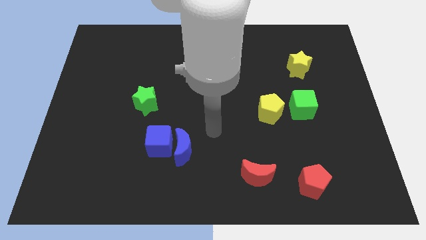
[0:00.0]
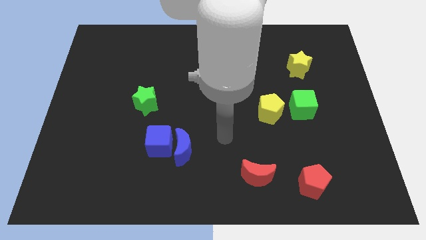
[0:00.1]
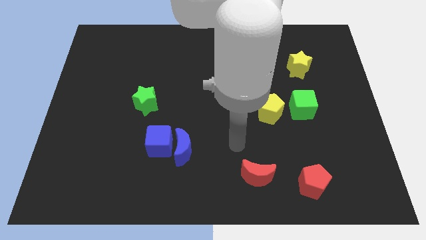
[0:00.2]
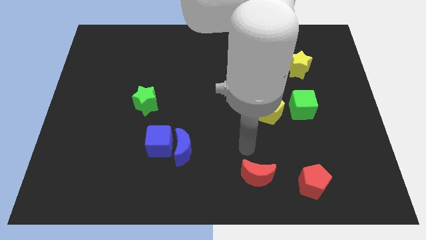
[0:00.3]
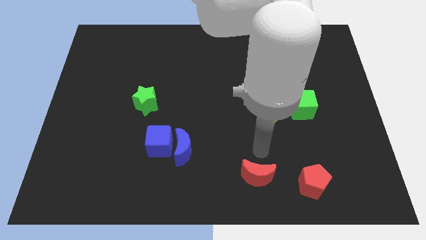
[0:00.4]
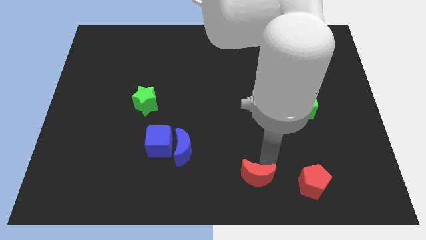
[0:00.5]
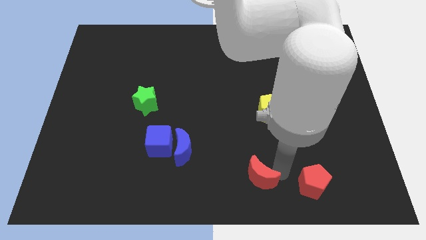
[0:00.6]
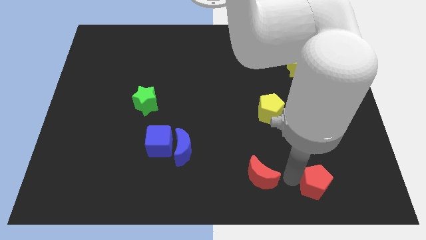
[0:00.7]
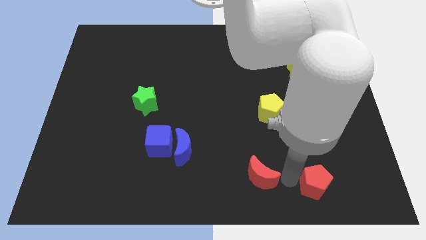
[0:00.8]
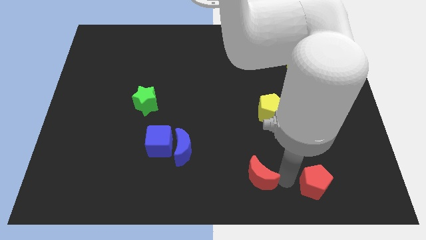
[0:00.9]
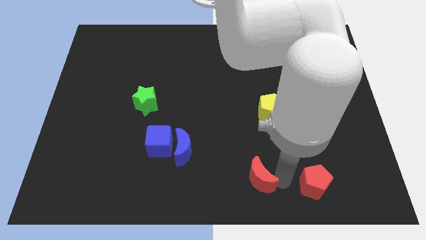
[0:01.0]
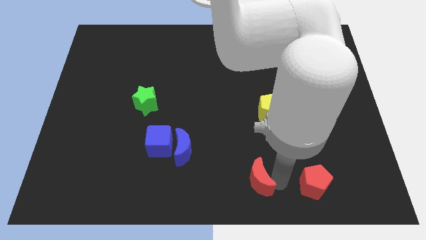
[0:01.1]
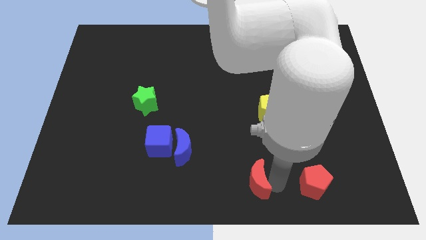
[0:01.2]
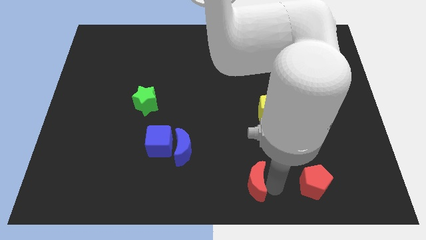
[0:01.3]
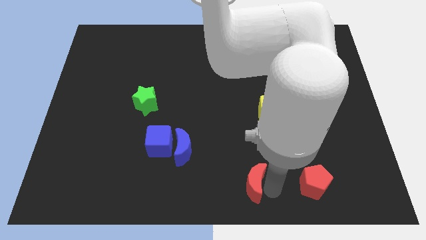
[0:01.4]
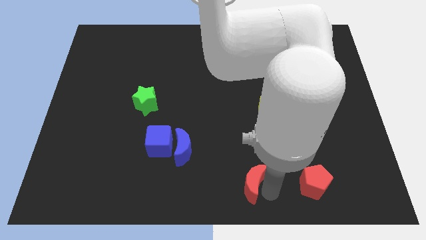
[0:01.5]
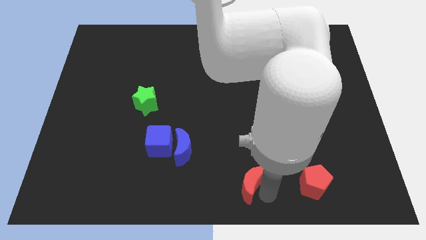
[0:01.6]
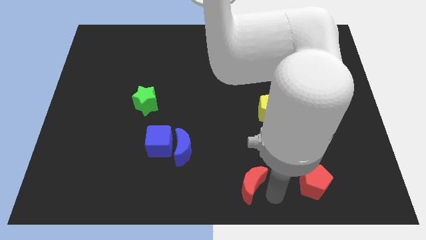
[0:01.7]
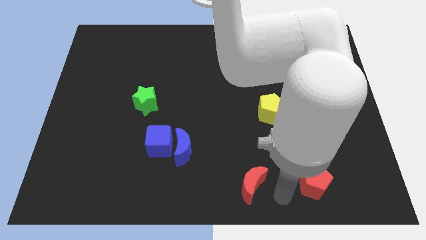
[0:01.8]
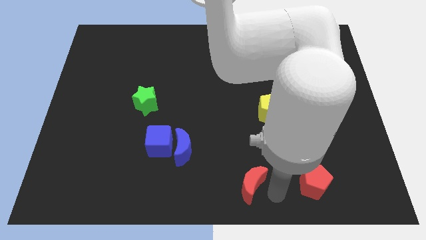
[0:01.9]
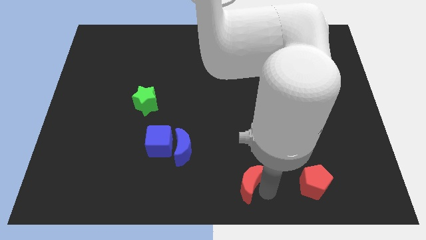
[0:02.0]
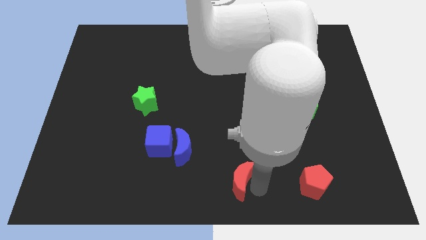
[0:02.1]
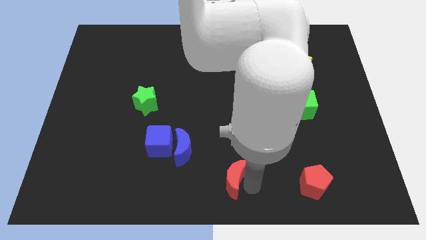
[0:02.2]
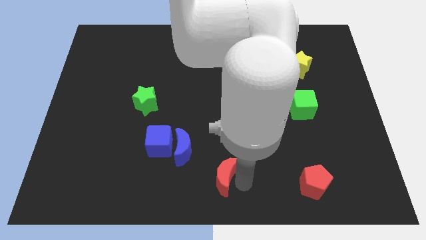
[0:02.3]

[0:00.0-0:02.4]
push the red moon left a little

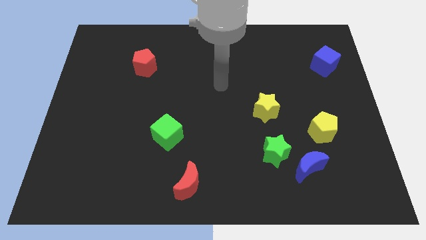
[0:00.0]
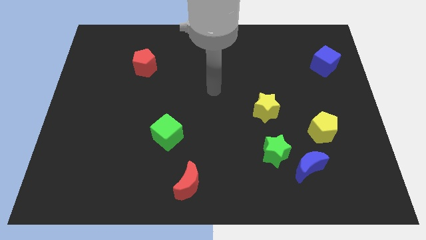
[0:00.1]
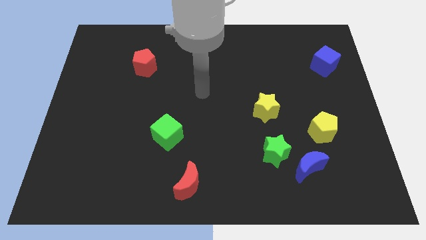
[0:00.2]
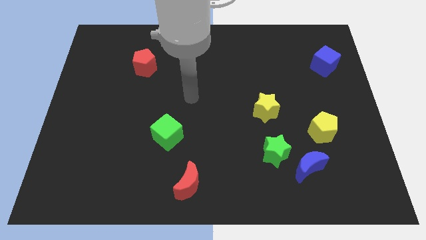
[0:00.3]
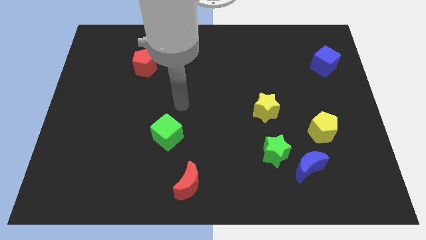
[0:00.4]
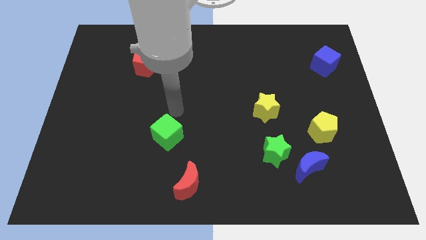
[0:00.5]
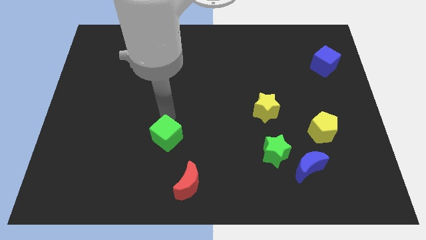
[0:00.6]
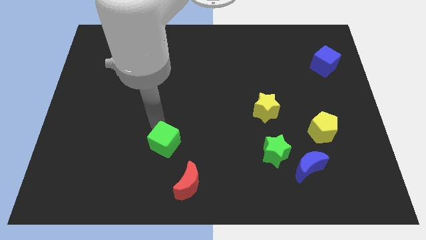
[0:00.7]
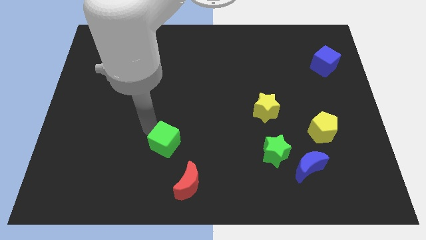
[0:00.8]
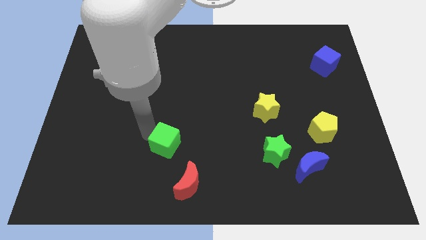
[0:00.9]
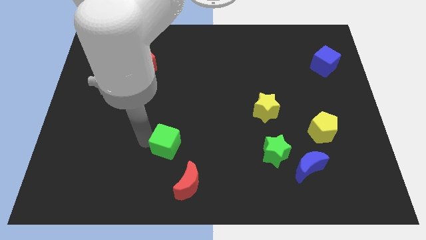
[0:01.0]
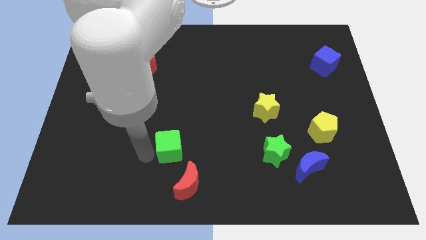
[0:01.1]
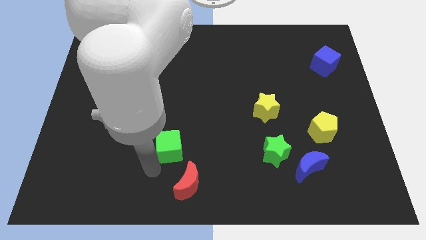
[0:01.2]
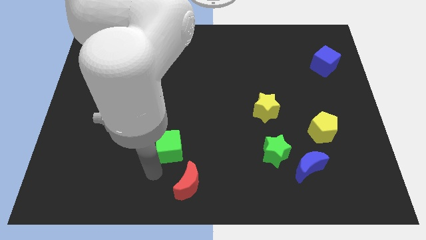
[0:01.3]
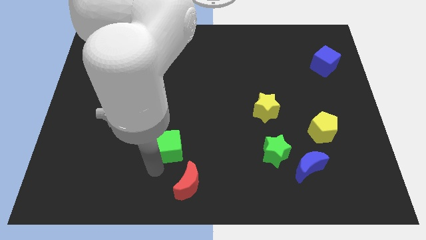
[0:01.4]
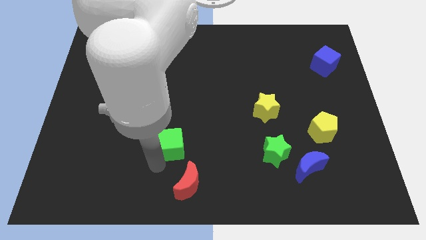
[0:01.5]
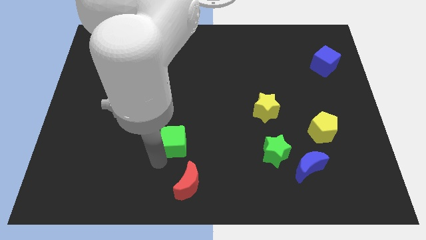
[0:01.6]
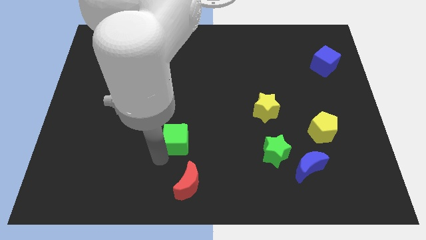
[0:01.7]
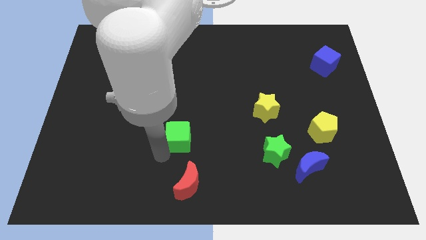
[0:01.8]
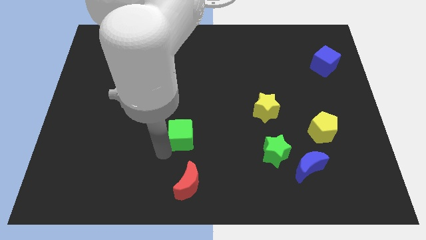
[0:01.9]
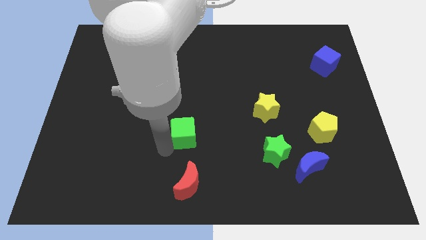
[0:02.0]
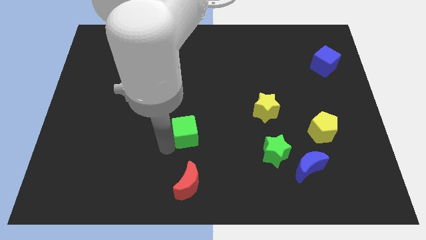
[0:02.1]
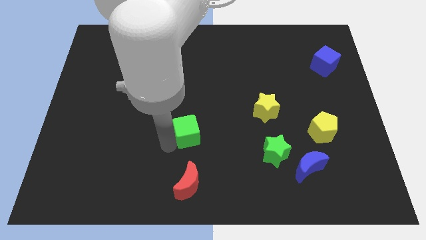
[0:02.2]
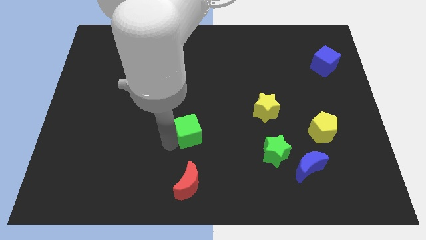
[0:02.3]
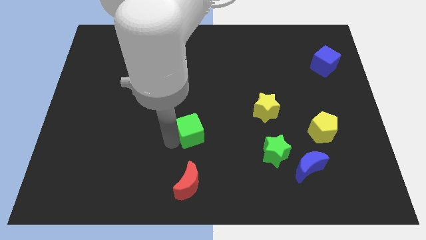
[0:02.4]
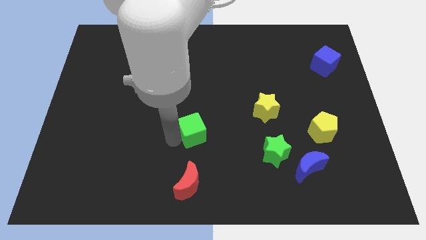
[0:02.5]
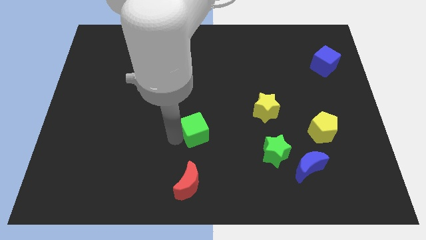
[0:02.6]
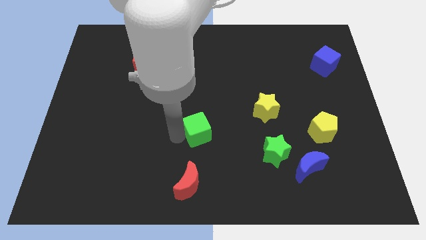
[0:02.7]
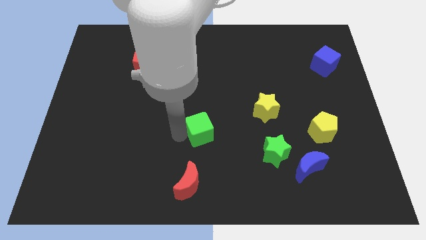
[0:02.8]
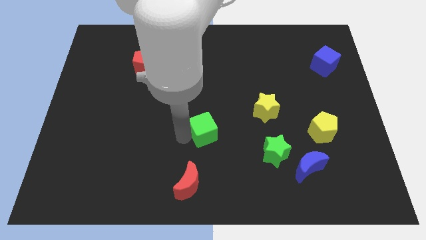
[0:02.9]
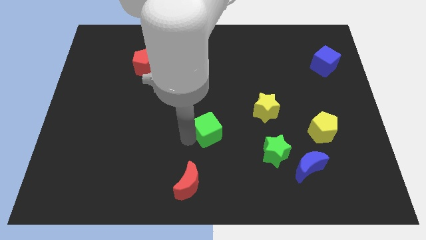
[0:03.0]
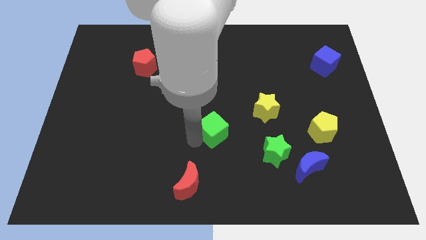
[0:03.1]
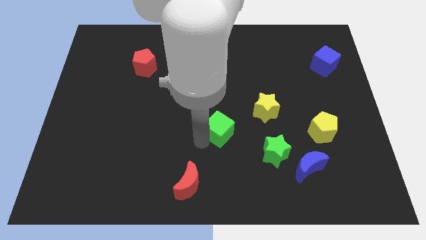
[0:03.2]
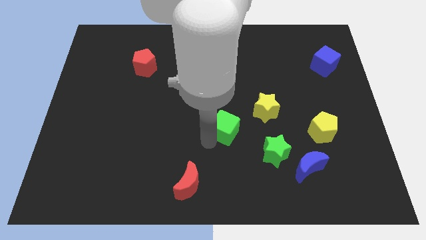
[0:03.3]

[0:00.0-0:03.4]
move the green cube a bit upwards and then to the right

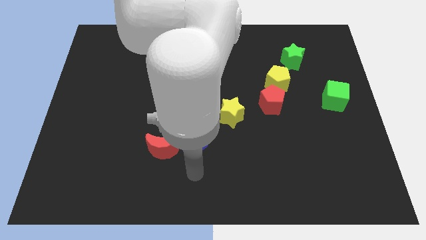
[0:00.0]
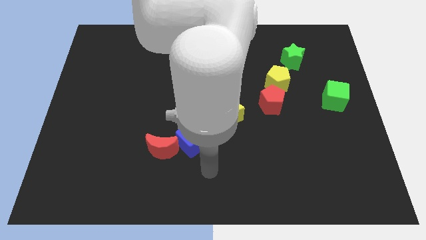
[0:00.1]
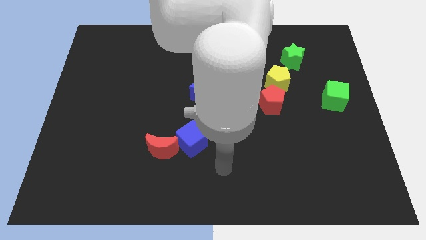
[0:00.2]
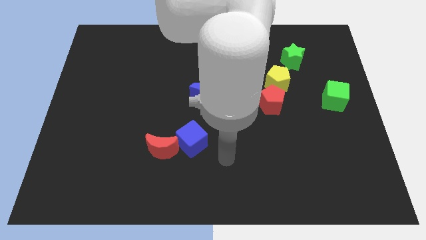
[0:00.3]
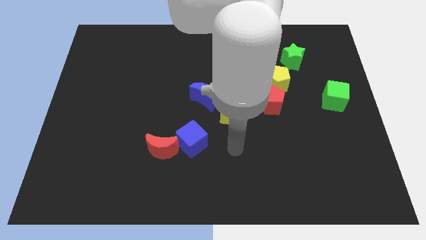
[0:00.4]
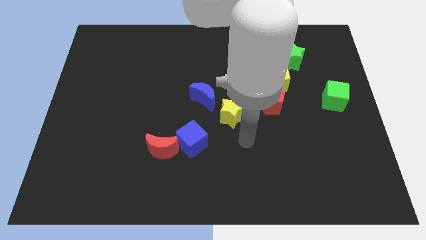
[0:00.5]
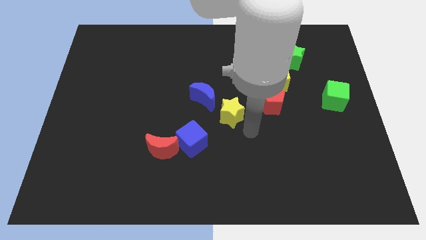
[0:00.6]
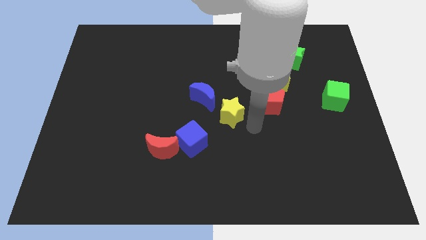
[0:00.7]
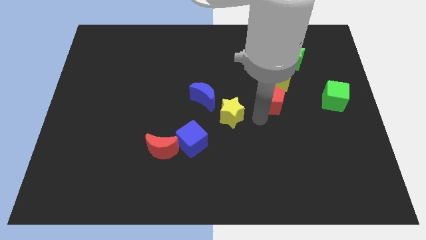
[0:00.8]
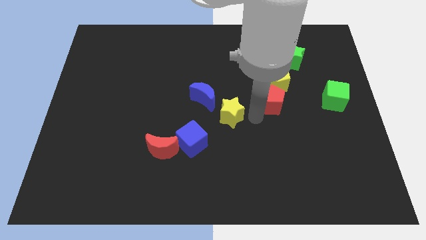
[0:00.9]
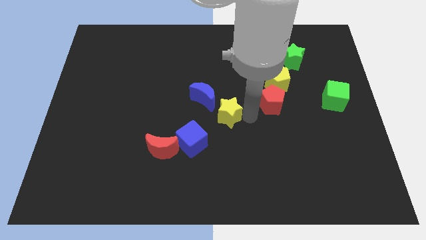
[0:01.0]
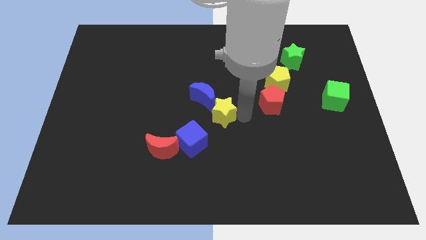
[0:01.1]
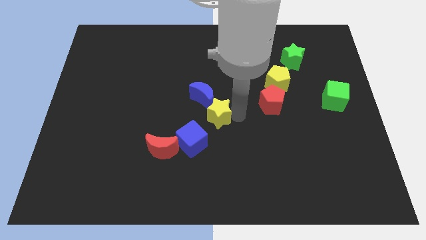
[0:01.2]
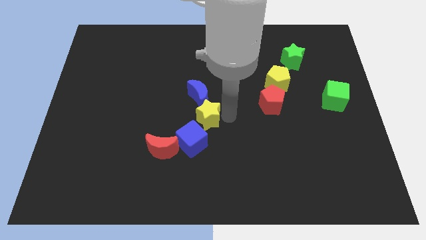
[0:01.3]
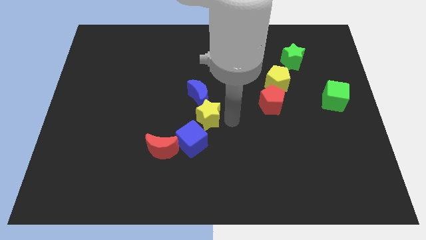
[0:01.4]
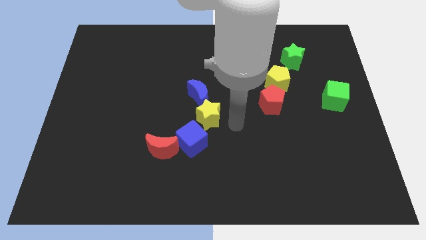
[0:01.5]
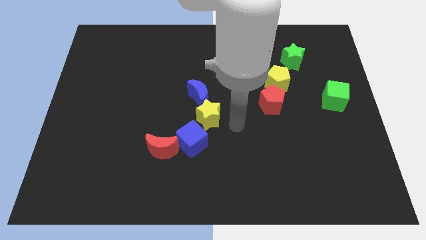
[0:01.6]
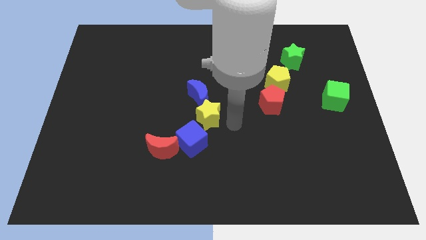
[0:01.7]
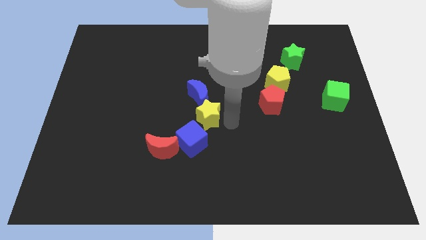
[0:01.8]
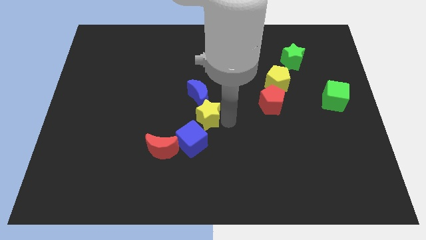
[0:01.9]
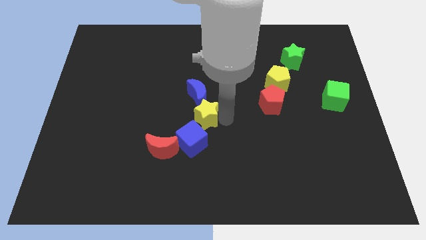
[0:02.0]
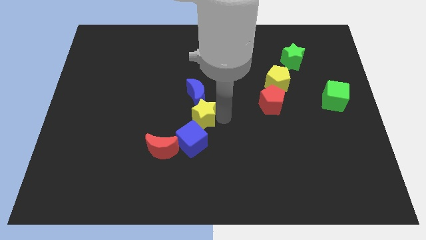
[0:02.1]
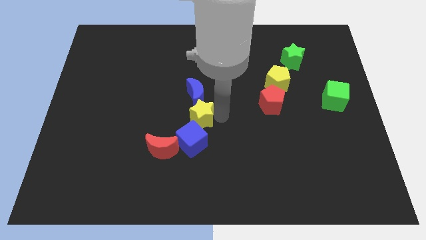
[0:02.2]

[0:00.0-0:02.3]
push the yellow star to the left a bit
